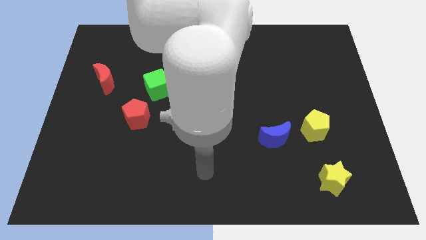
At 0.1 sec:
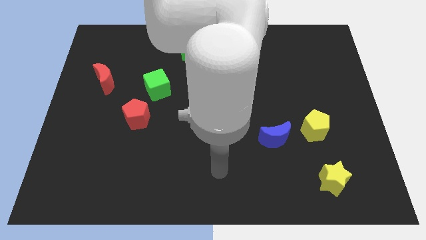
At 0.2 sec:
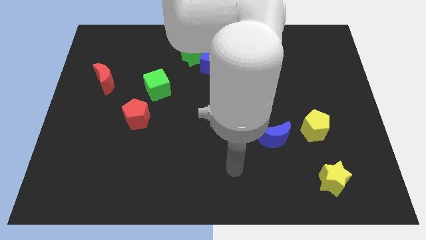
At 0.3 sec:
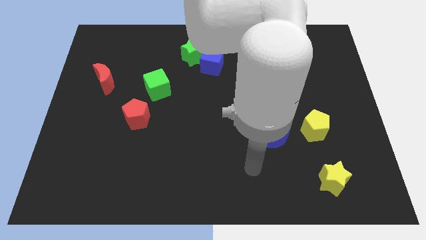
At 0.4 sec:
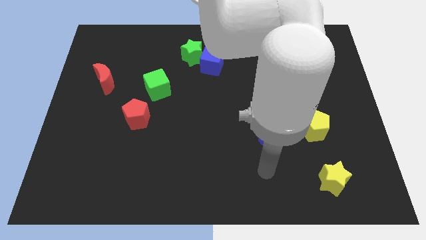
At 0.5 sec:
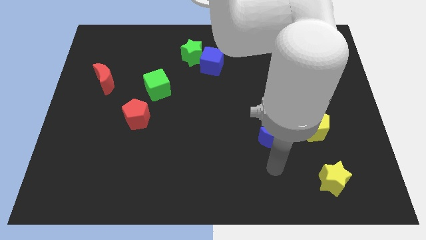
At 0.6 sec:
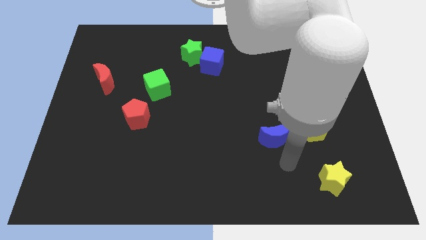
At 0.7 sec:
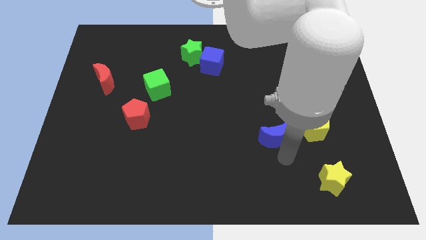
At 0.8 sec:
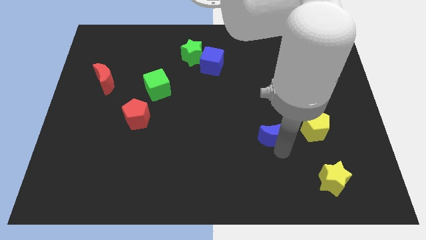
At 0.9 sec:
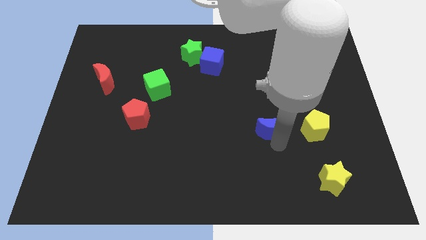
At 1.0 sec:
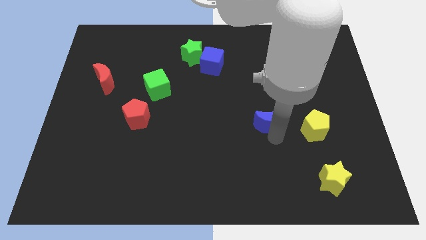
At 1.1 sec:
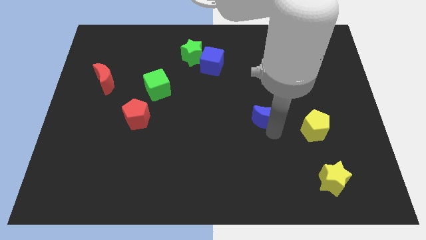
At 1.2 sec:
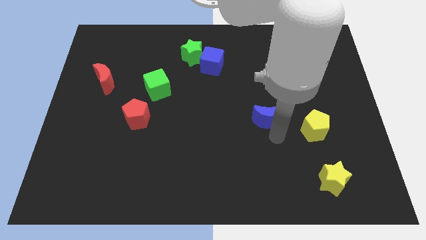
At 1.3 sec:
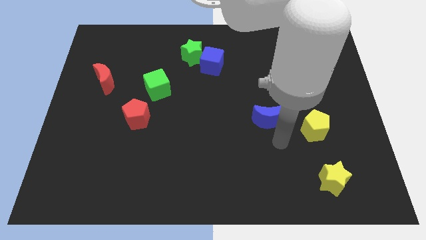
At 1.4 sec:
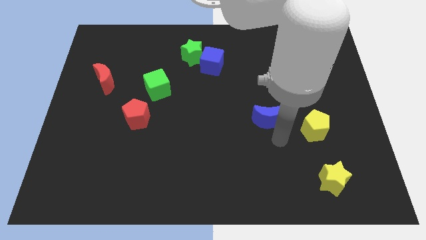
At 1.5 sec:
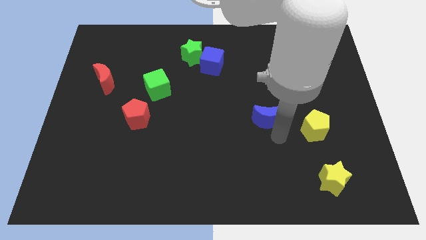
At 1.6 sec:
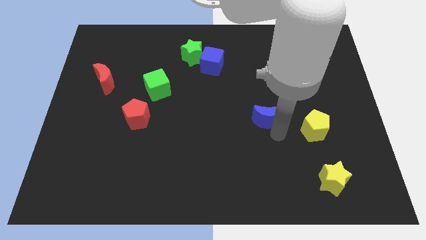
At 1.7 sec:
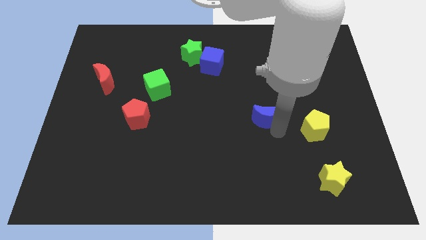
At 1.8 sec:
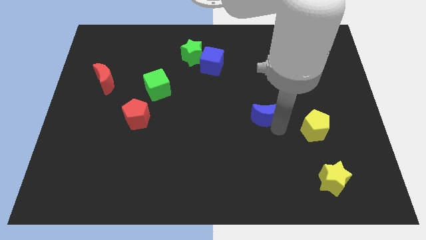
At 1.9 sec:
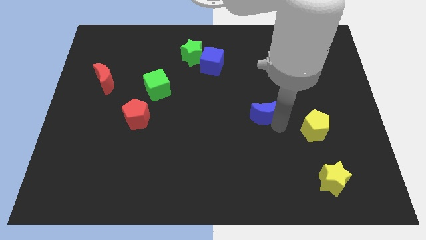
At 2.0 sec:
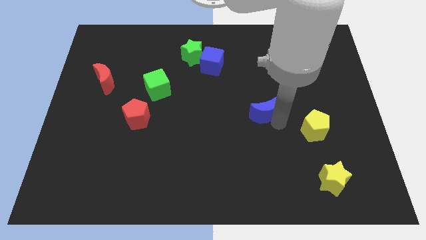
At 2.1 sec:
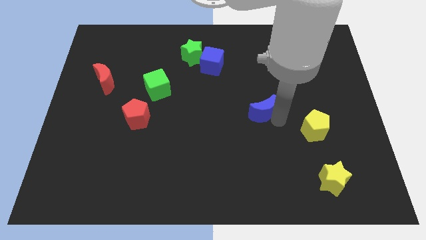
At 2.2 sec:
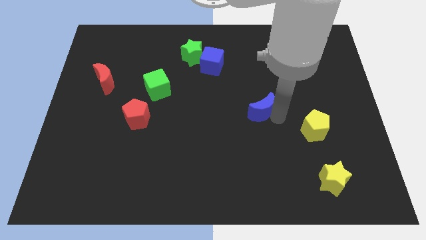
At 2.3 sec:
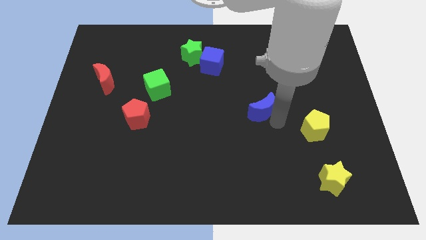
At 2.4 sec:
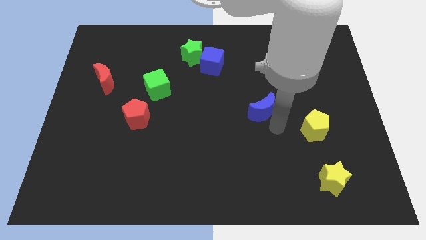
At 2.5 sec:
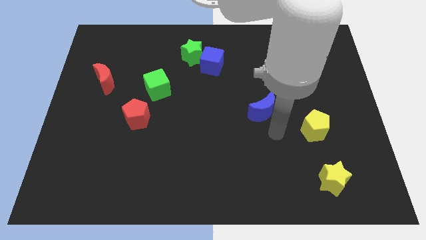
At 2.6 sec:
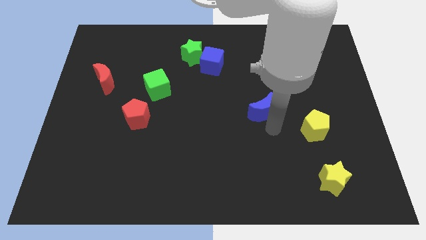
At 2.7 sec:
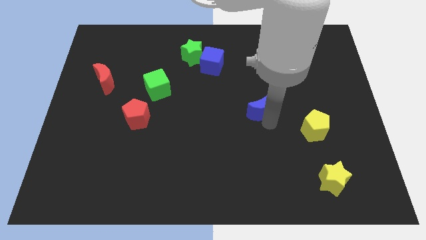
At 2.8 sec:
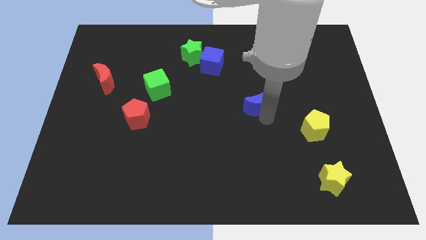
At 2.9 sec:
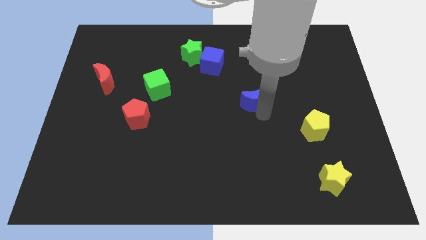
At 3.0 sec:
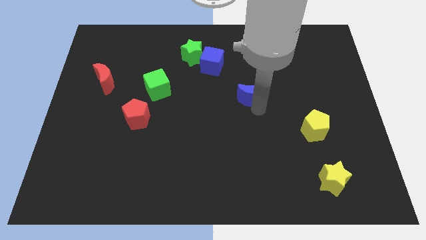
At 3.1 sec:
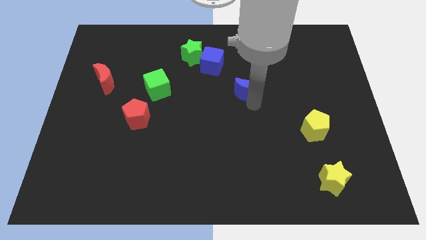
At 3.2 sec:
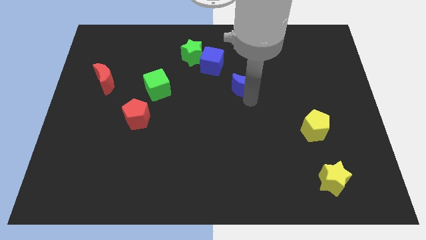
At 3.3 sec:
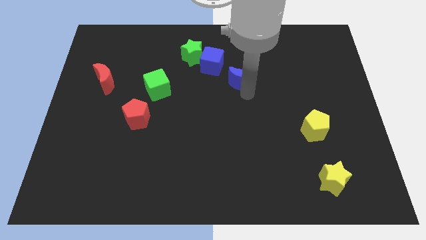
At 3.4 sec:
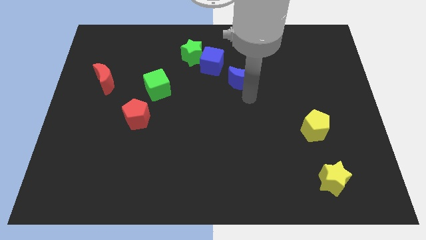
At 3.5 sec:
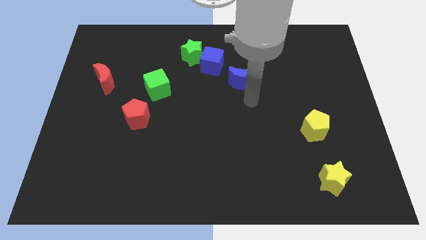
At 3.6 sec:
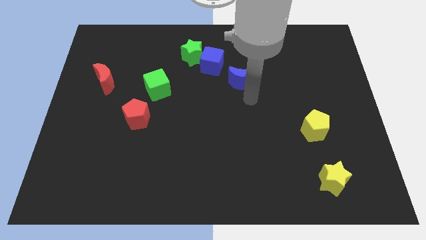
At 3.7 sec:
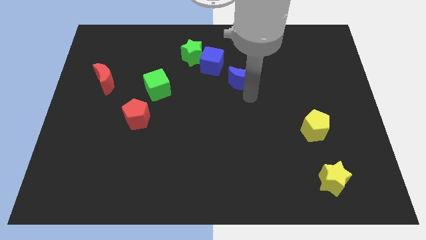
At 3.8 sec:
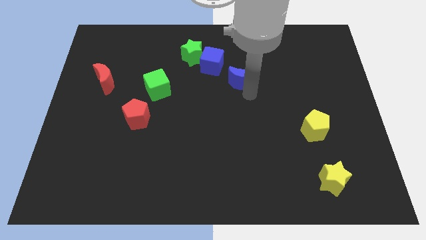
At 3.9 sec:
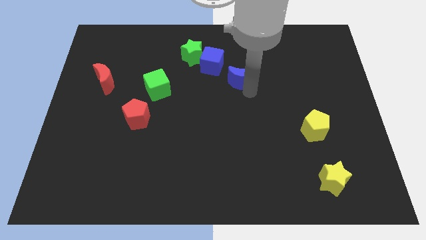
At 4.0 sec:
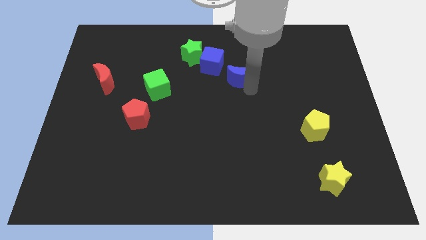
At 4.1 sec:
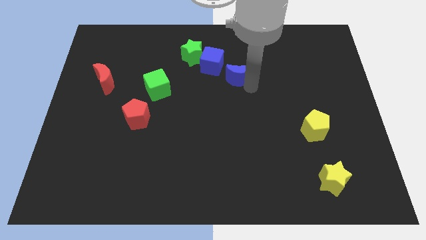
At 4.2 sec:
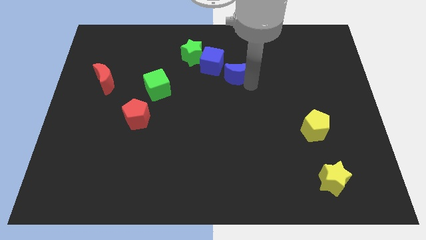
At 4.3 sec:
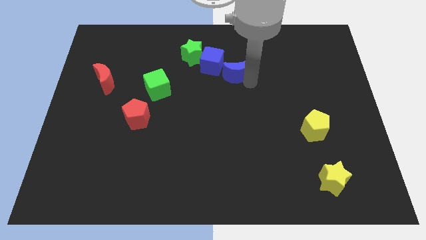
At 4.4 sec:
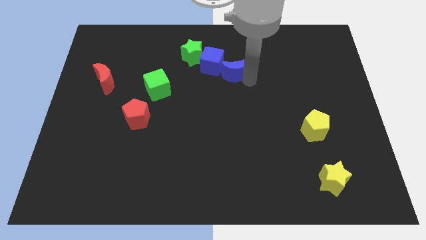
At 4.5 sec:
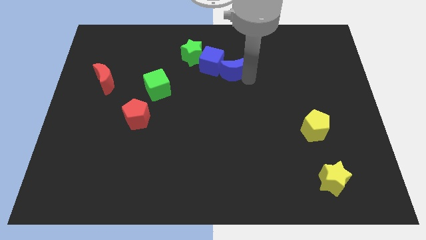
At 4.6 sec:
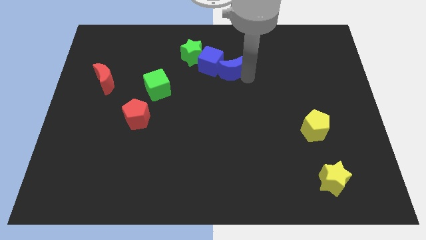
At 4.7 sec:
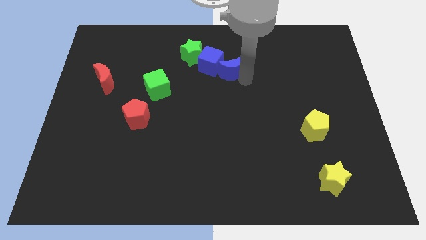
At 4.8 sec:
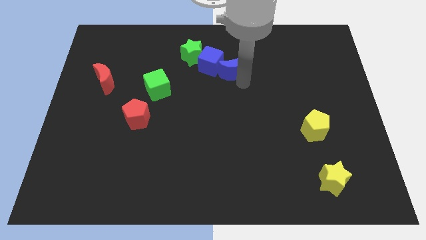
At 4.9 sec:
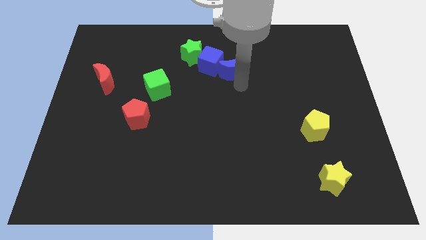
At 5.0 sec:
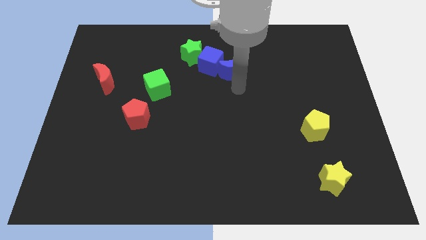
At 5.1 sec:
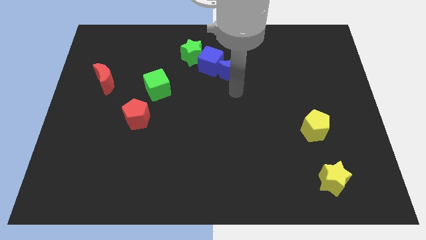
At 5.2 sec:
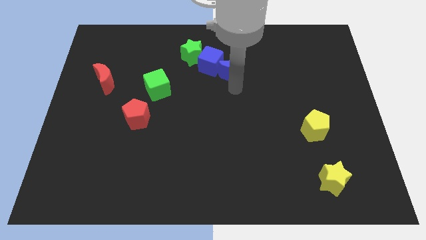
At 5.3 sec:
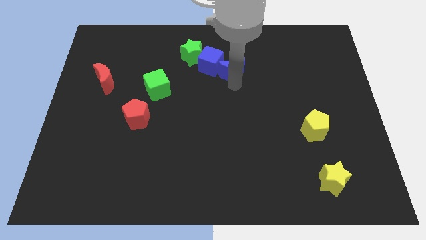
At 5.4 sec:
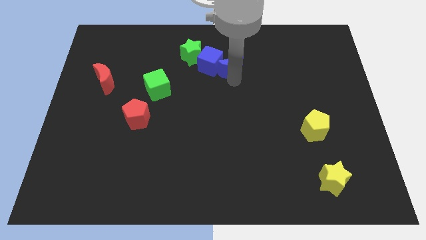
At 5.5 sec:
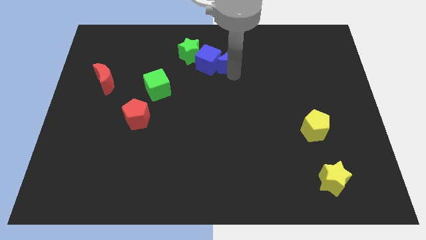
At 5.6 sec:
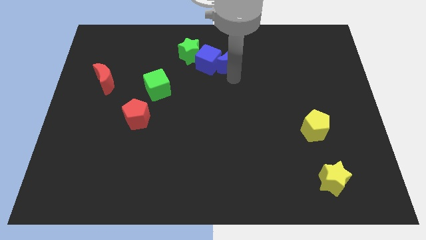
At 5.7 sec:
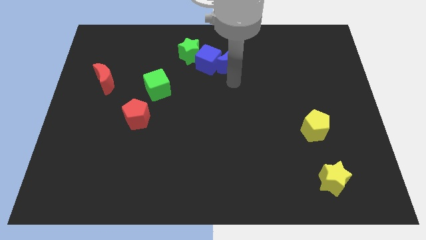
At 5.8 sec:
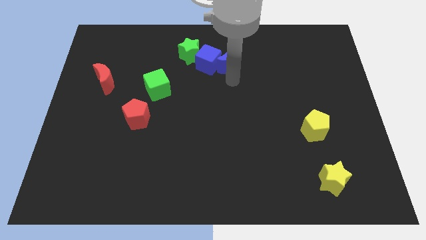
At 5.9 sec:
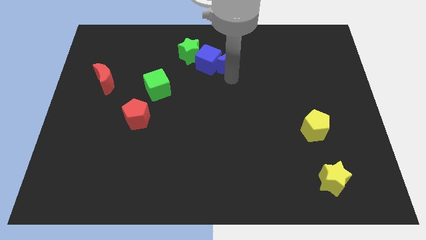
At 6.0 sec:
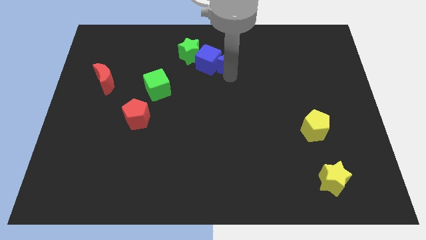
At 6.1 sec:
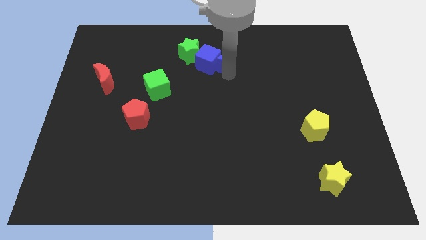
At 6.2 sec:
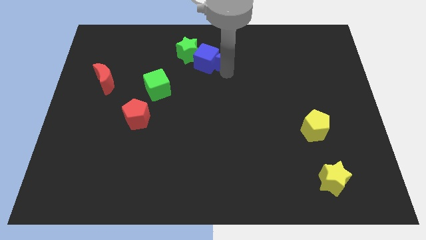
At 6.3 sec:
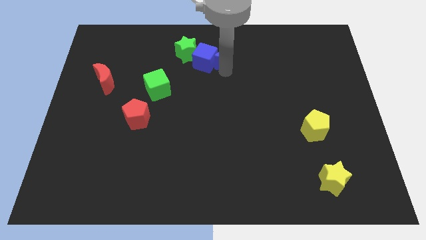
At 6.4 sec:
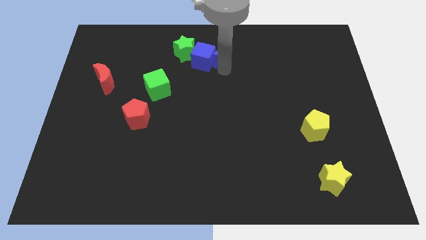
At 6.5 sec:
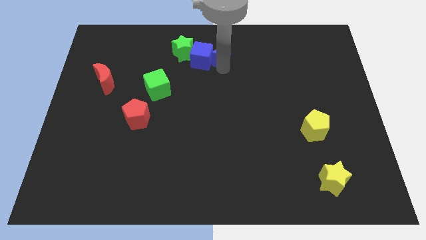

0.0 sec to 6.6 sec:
push the blue moon to the top
